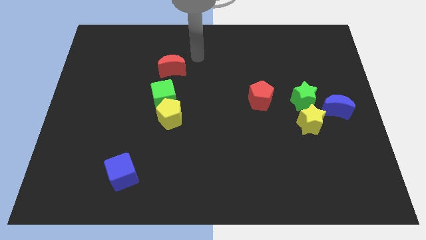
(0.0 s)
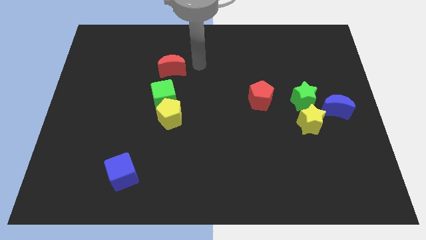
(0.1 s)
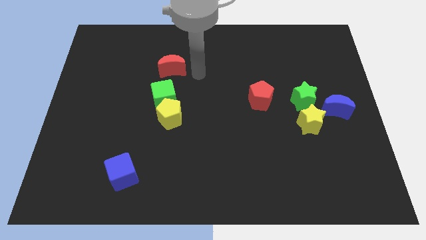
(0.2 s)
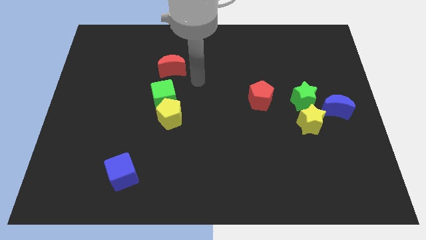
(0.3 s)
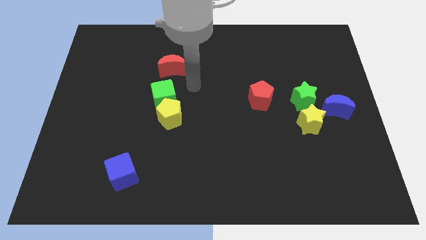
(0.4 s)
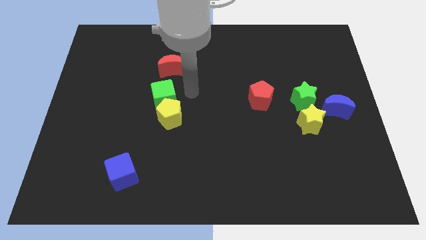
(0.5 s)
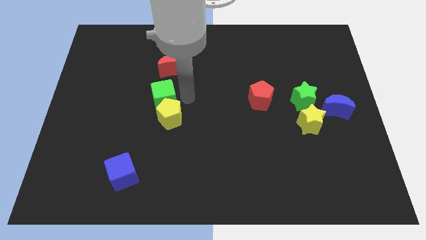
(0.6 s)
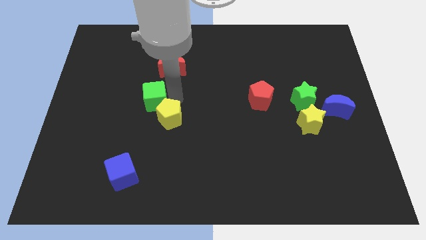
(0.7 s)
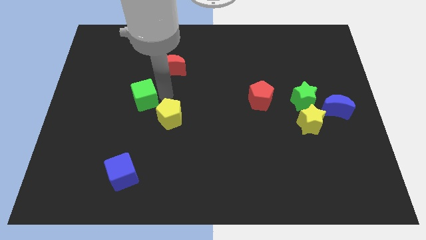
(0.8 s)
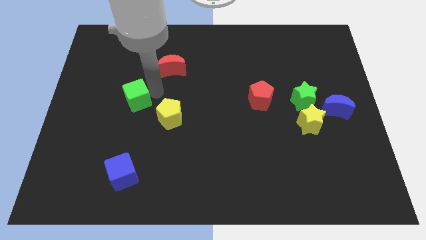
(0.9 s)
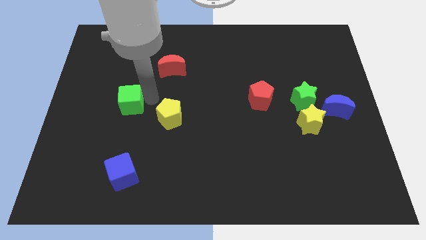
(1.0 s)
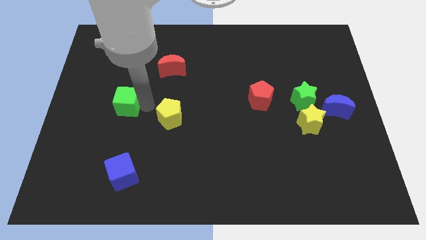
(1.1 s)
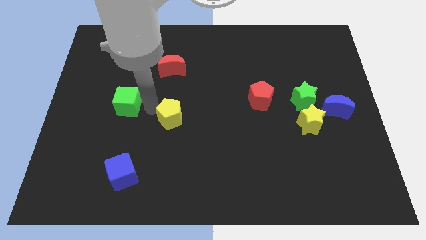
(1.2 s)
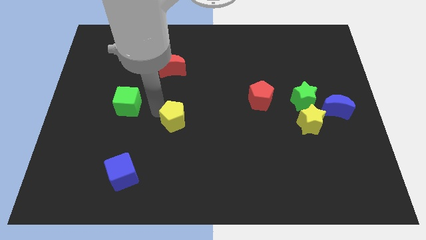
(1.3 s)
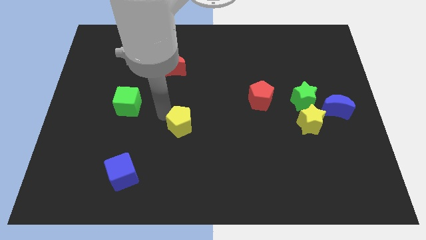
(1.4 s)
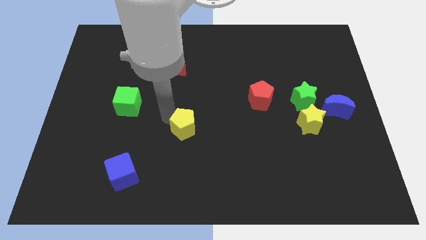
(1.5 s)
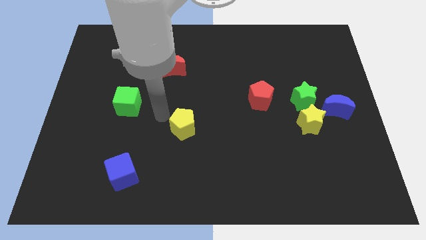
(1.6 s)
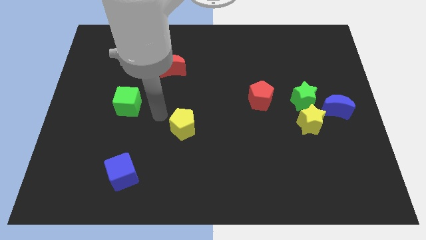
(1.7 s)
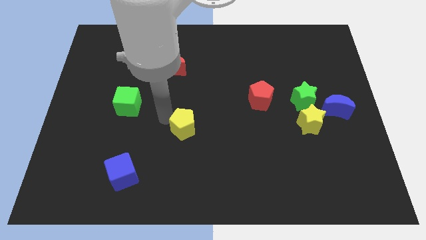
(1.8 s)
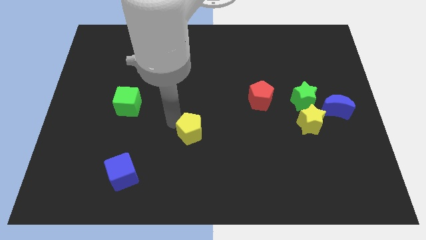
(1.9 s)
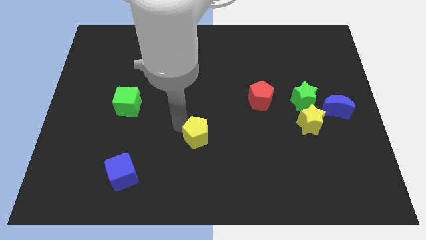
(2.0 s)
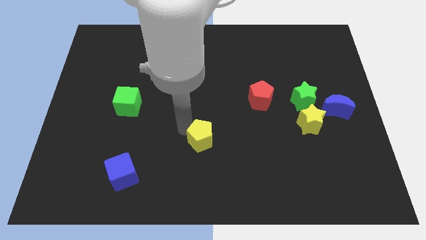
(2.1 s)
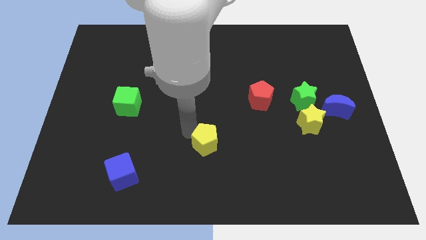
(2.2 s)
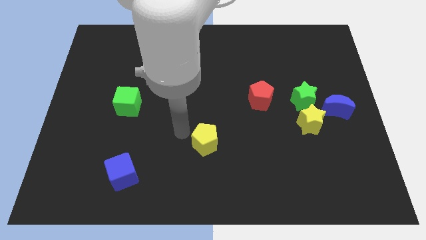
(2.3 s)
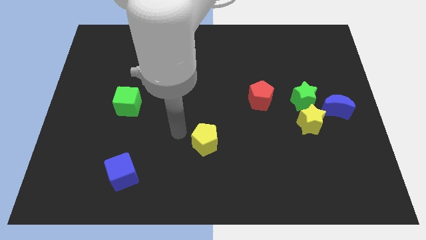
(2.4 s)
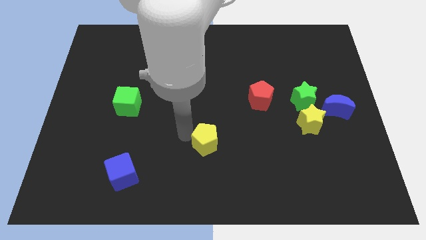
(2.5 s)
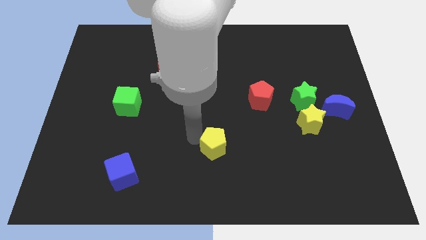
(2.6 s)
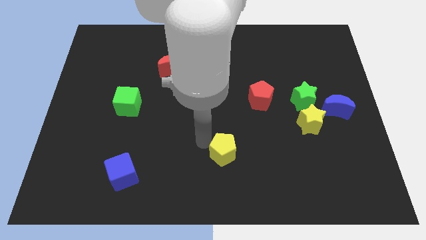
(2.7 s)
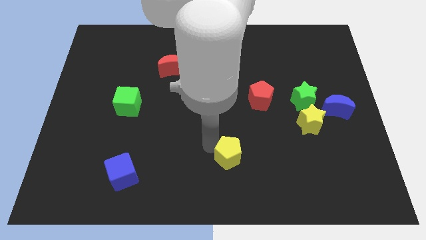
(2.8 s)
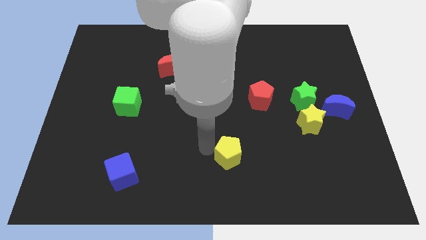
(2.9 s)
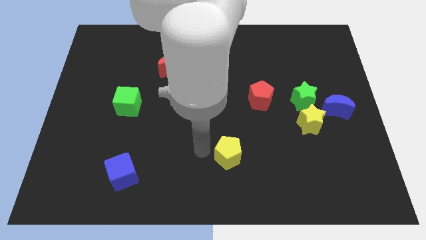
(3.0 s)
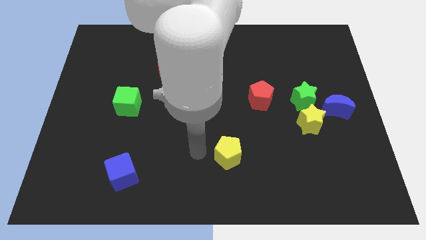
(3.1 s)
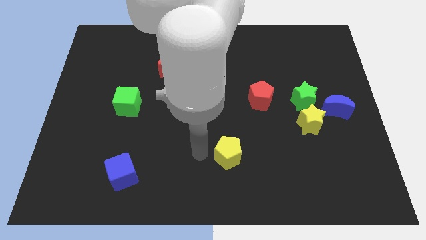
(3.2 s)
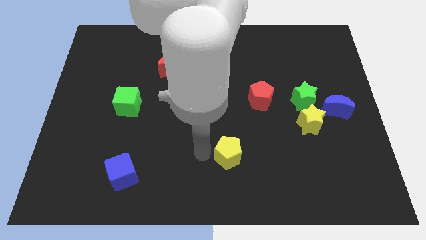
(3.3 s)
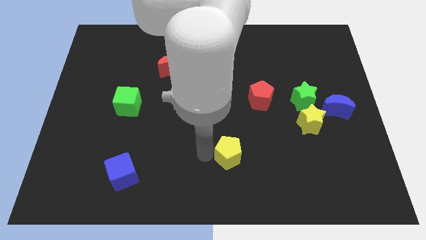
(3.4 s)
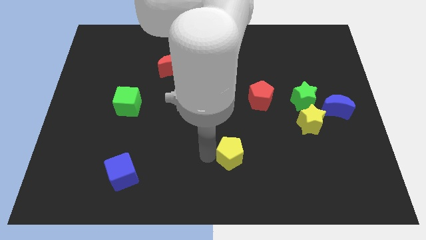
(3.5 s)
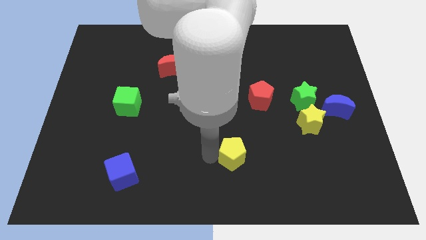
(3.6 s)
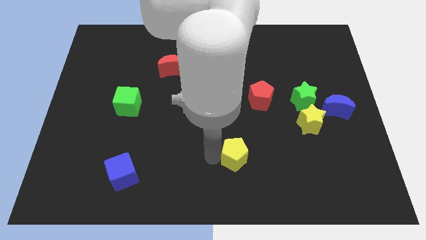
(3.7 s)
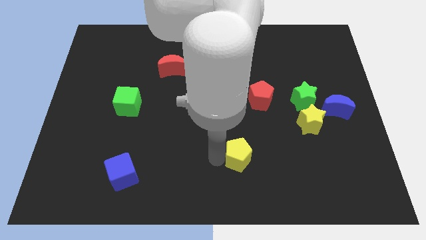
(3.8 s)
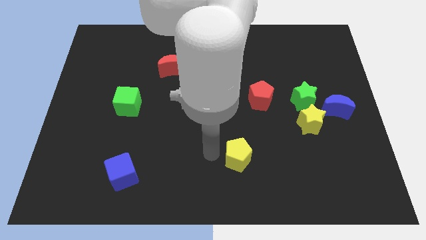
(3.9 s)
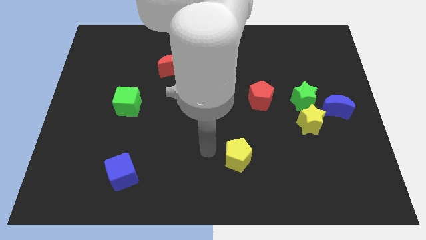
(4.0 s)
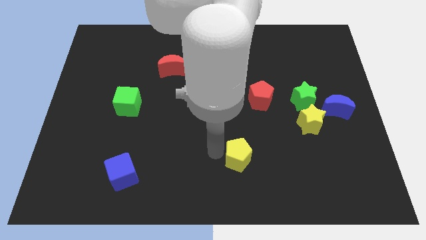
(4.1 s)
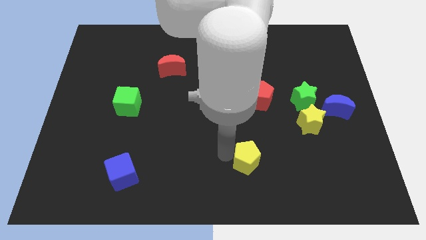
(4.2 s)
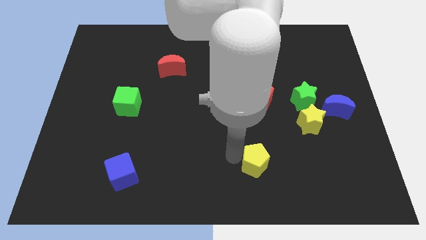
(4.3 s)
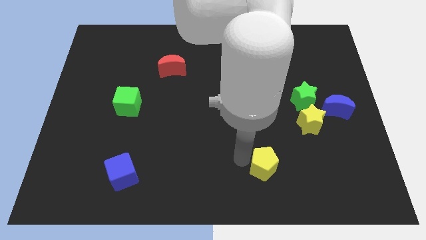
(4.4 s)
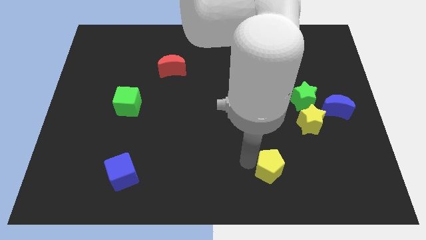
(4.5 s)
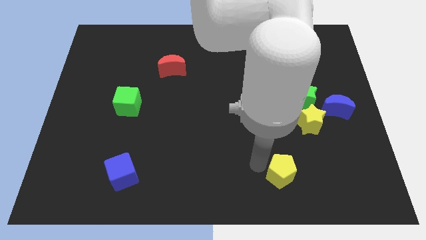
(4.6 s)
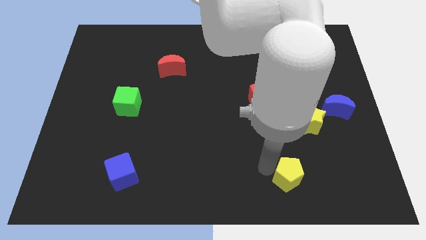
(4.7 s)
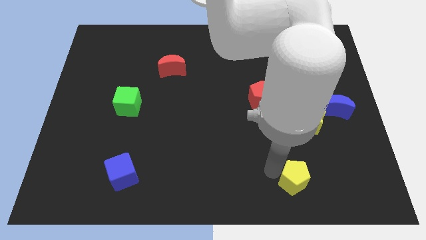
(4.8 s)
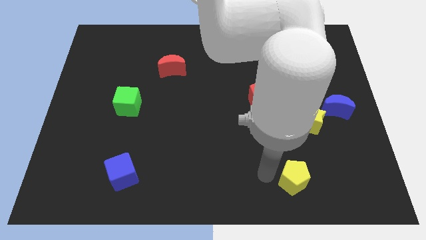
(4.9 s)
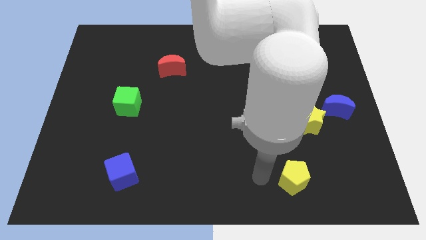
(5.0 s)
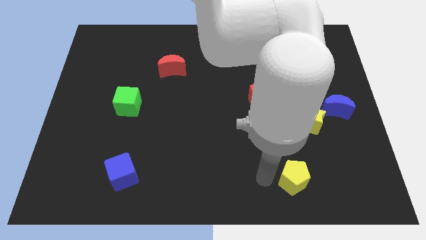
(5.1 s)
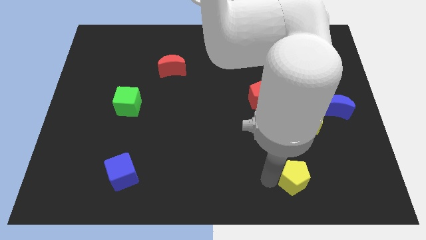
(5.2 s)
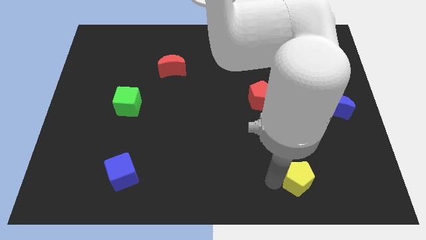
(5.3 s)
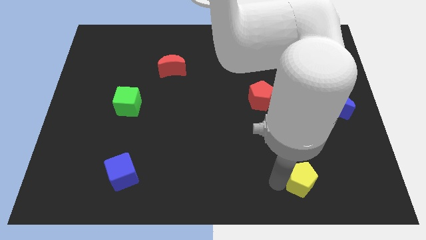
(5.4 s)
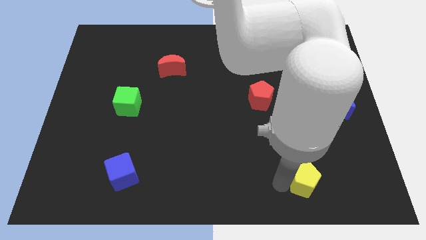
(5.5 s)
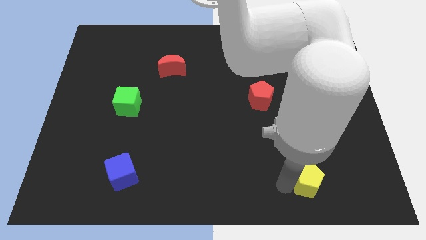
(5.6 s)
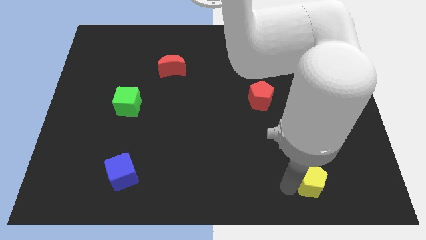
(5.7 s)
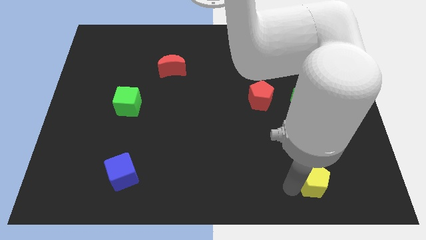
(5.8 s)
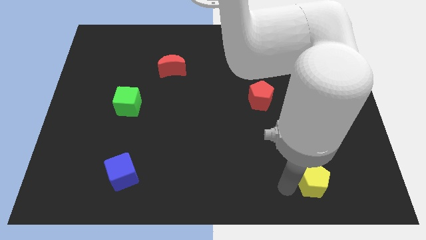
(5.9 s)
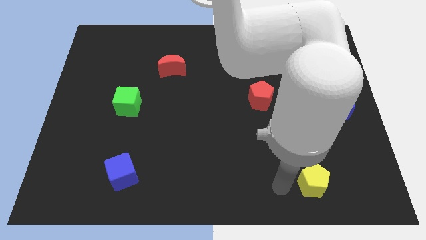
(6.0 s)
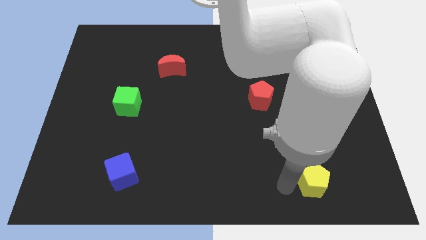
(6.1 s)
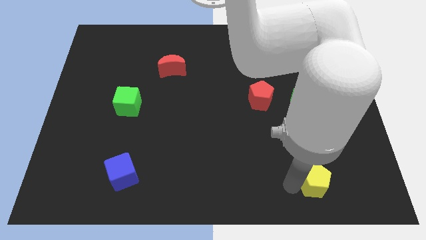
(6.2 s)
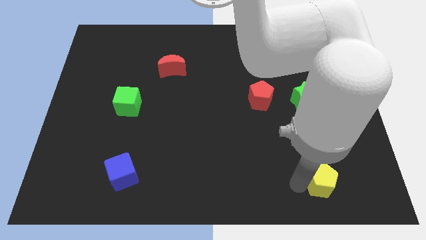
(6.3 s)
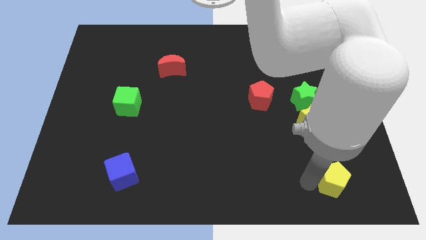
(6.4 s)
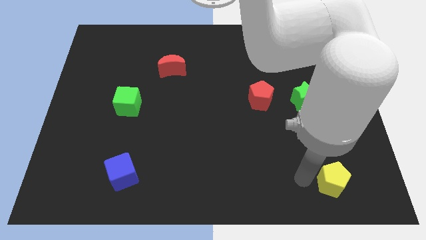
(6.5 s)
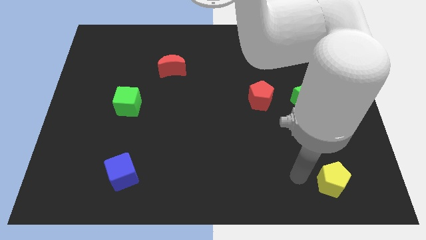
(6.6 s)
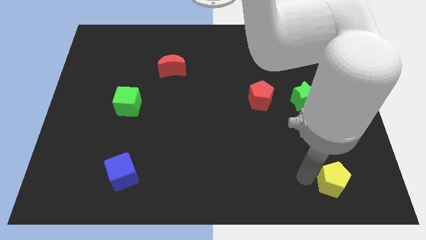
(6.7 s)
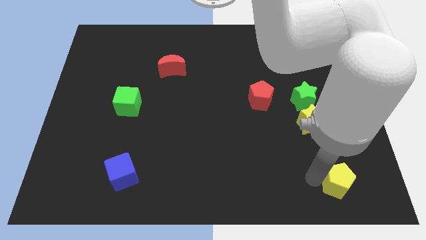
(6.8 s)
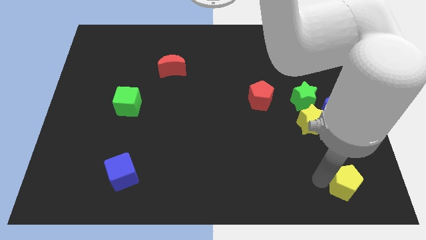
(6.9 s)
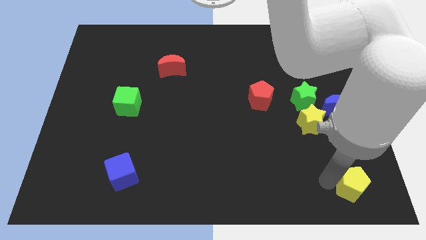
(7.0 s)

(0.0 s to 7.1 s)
push the yellow pentagon to the bottom right corner
